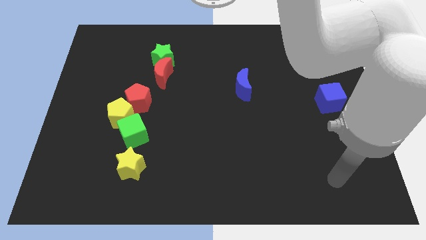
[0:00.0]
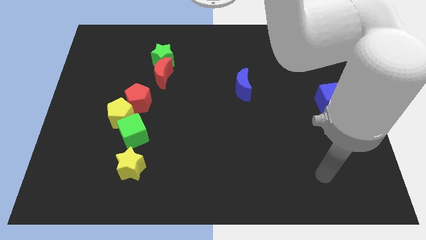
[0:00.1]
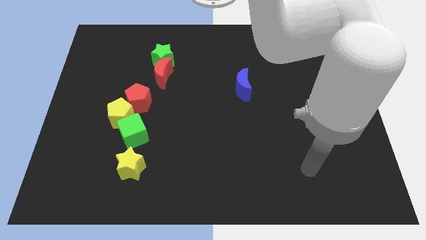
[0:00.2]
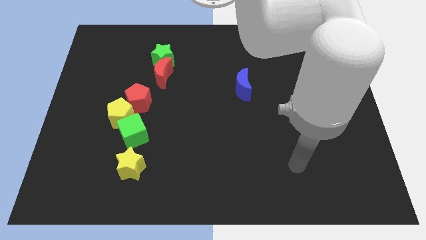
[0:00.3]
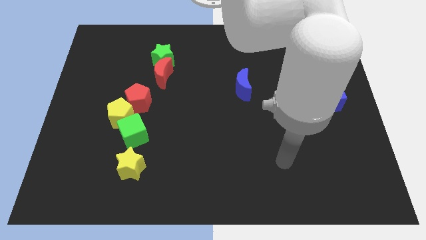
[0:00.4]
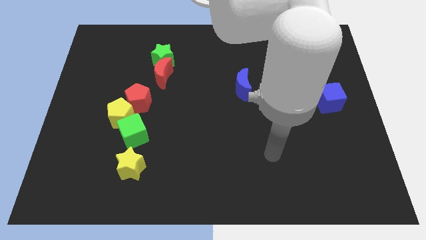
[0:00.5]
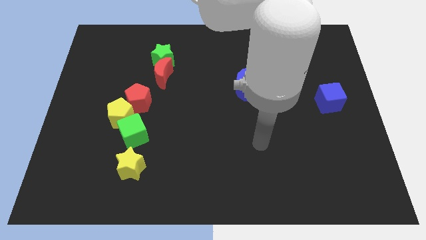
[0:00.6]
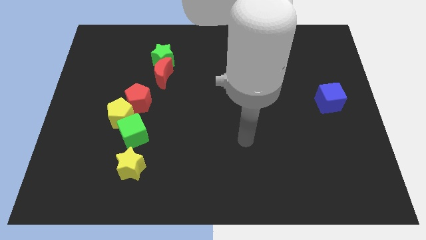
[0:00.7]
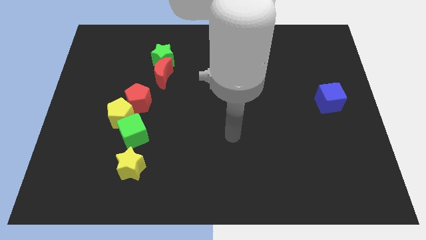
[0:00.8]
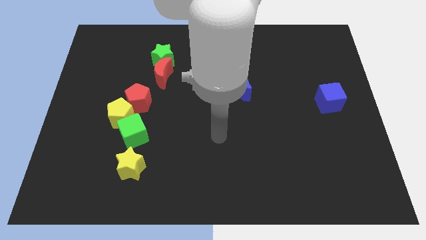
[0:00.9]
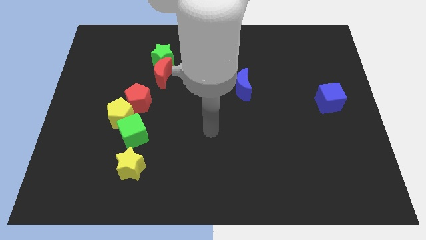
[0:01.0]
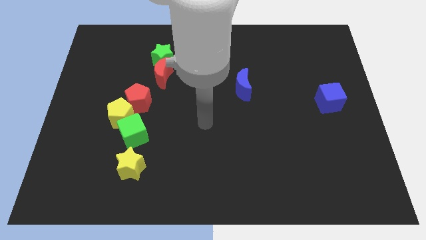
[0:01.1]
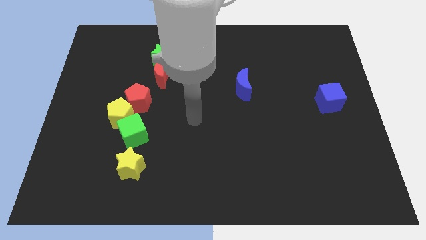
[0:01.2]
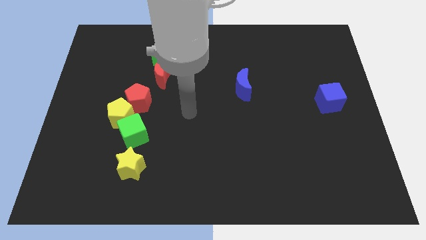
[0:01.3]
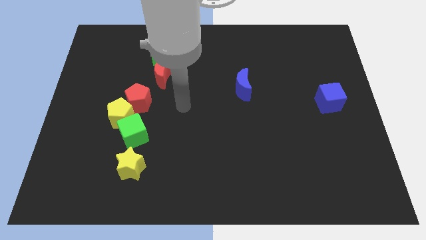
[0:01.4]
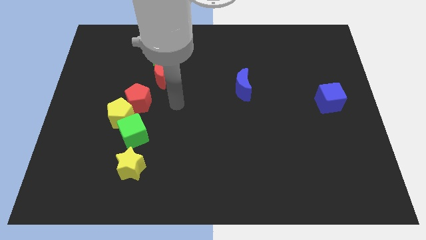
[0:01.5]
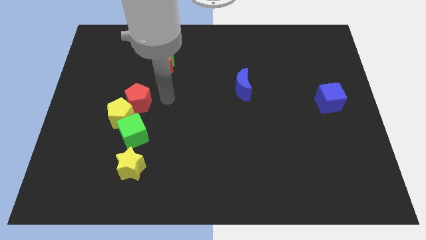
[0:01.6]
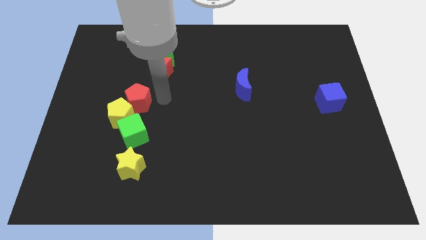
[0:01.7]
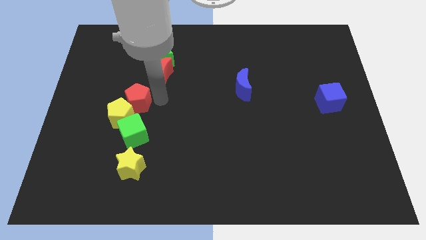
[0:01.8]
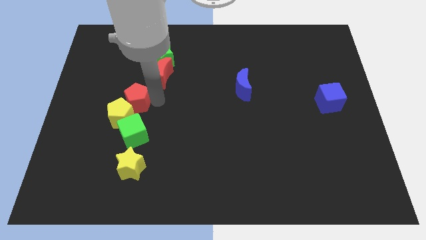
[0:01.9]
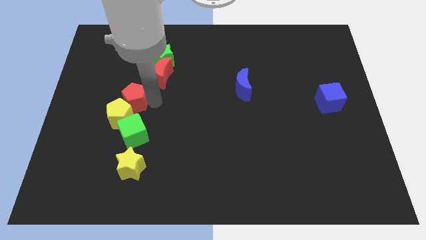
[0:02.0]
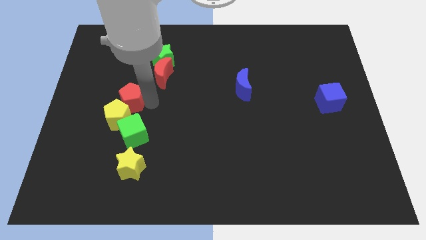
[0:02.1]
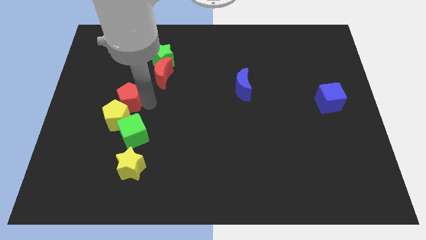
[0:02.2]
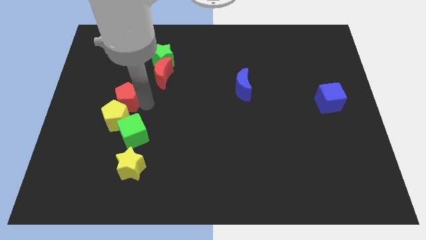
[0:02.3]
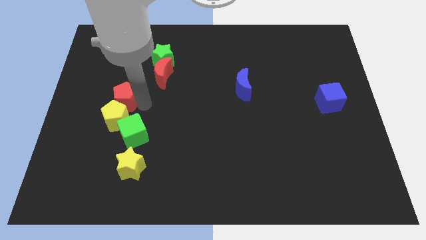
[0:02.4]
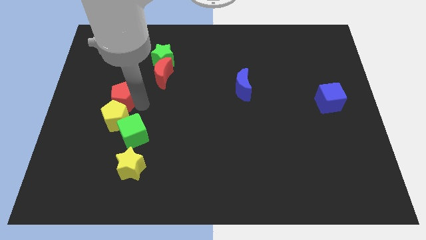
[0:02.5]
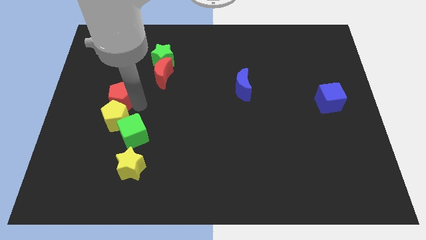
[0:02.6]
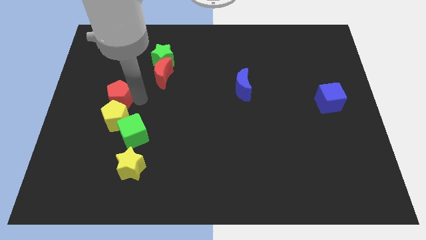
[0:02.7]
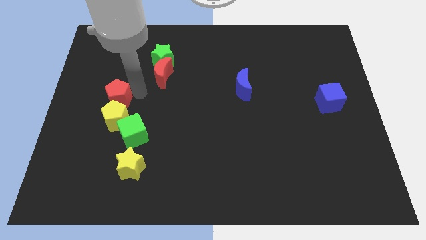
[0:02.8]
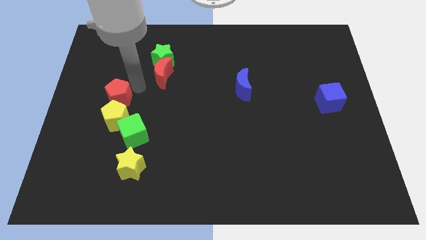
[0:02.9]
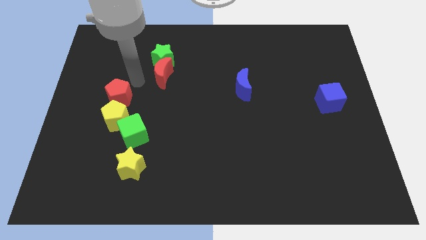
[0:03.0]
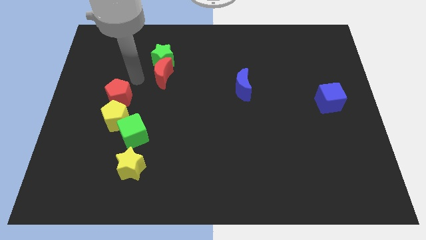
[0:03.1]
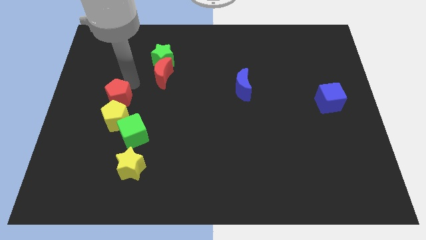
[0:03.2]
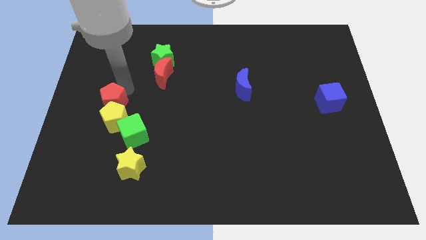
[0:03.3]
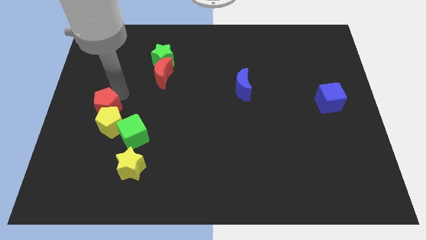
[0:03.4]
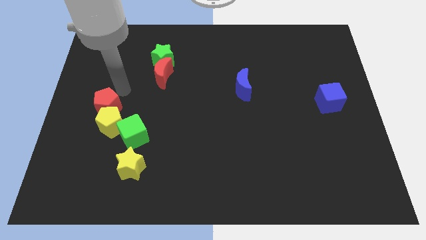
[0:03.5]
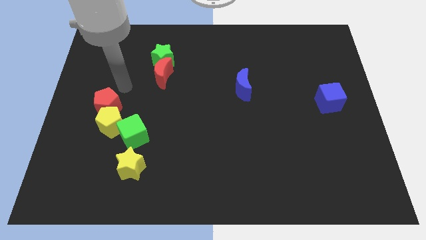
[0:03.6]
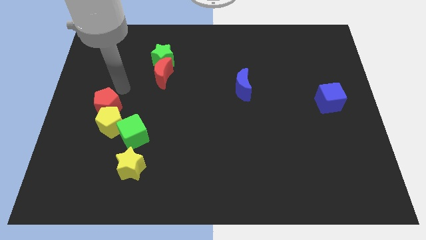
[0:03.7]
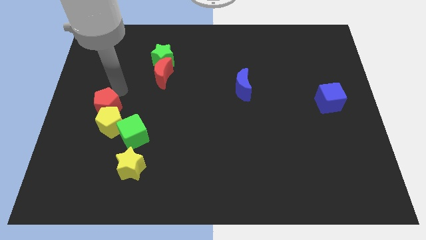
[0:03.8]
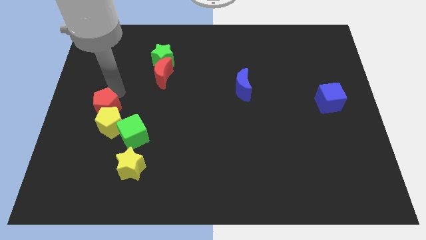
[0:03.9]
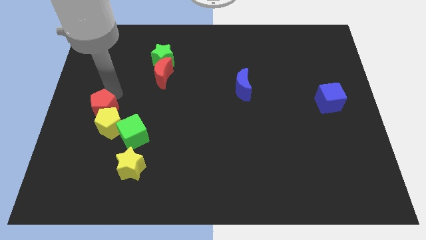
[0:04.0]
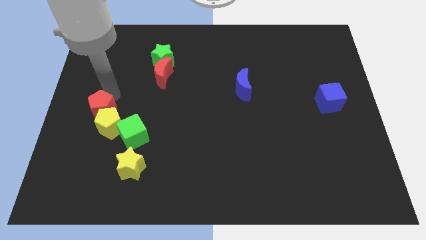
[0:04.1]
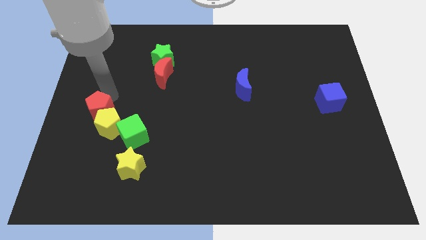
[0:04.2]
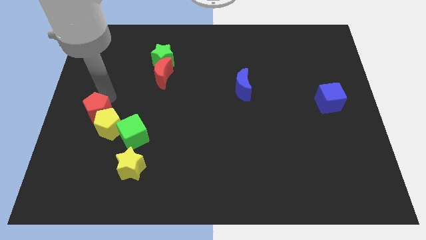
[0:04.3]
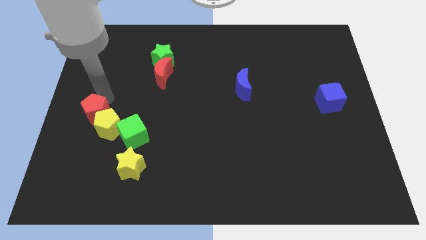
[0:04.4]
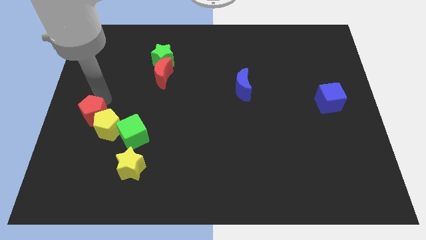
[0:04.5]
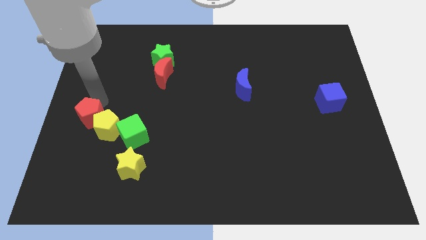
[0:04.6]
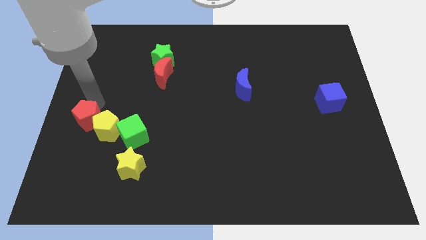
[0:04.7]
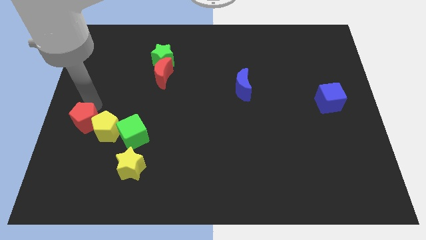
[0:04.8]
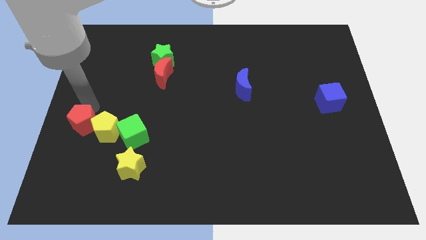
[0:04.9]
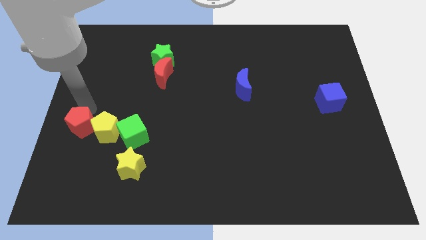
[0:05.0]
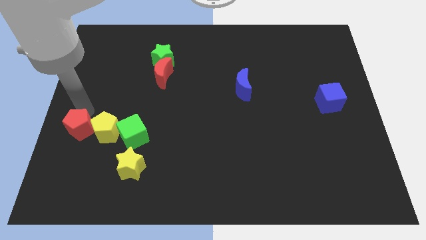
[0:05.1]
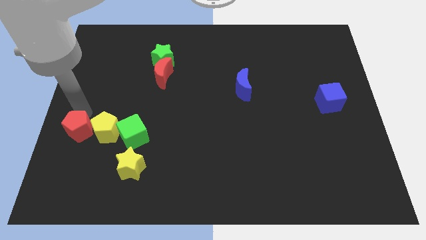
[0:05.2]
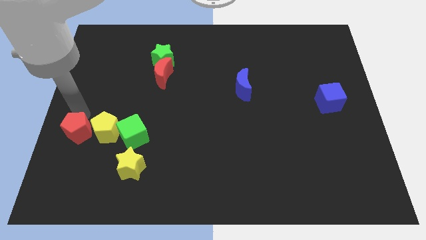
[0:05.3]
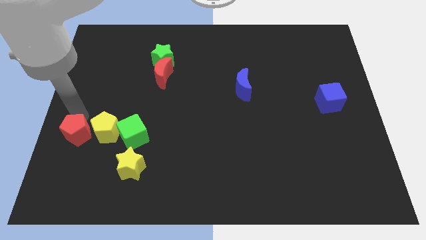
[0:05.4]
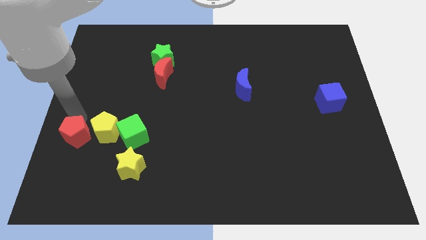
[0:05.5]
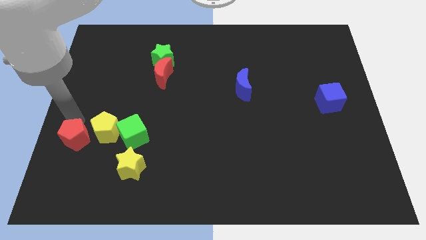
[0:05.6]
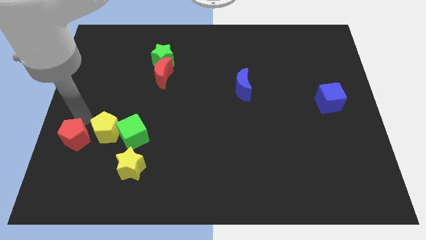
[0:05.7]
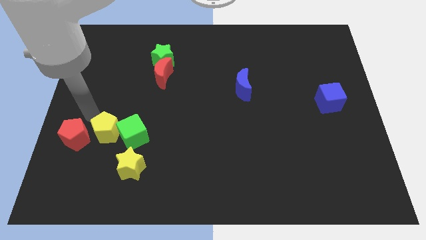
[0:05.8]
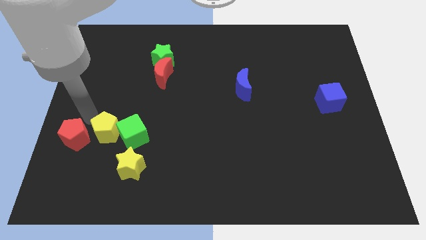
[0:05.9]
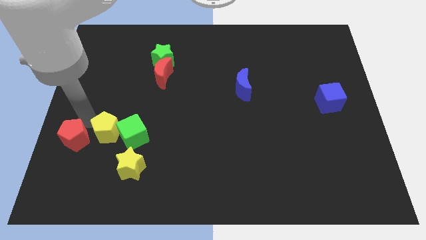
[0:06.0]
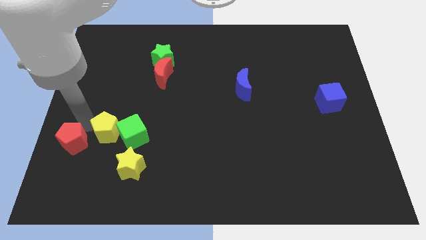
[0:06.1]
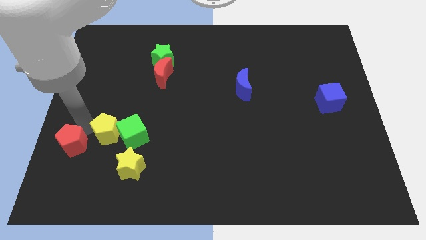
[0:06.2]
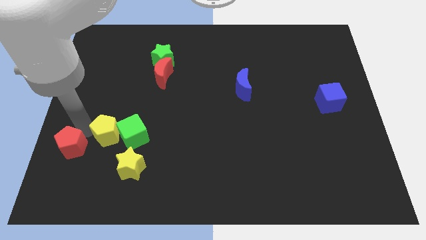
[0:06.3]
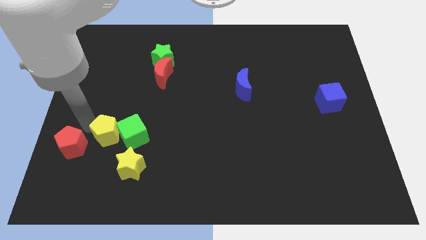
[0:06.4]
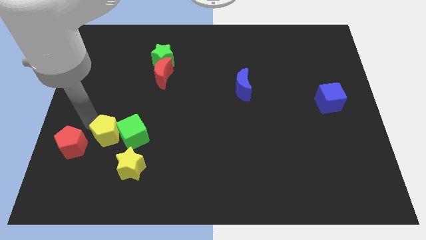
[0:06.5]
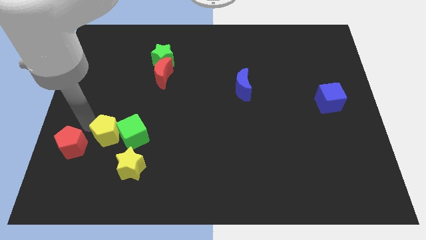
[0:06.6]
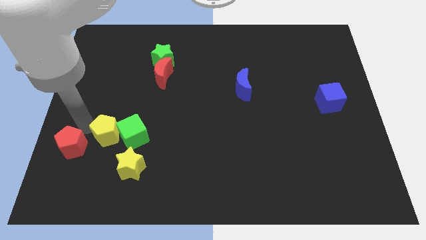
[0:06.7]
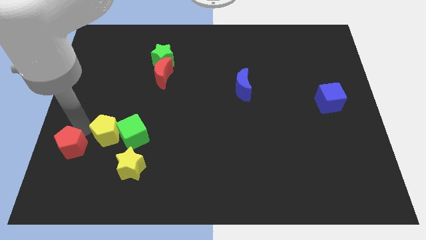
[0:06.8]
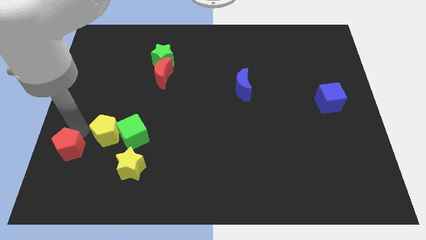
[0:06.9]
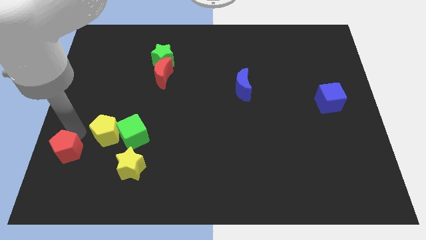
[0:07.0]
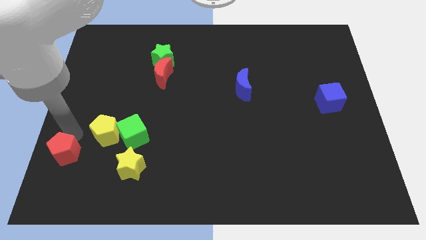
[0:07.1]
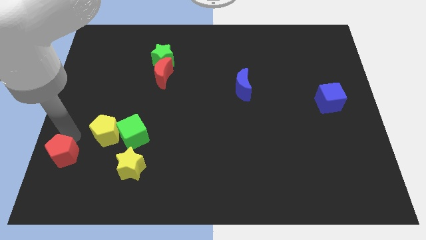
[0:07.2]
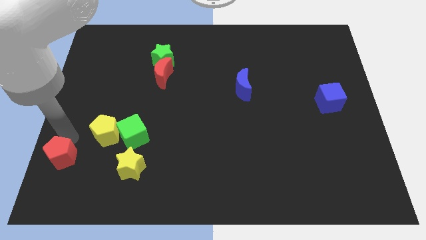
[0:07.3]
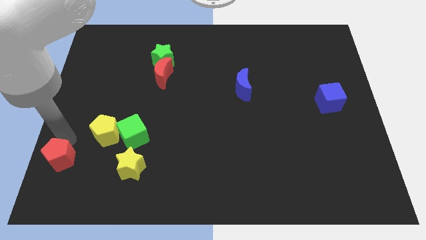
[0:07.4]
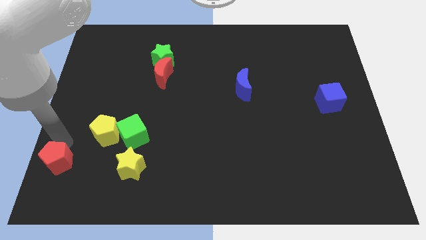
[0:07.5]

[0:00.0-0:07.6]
move the red pentagon to the lower left corner
